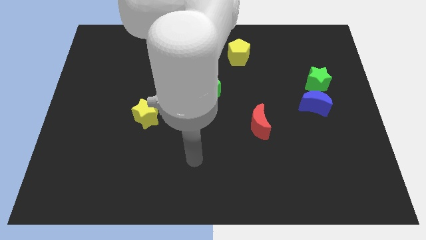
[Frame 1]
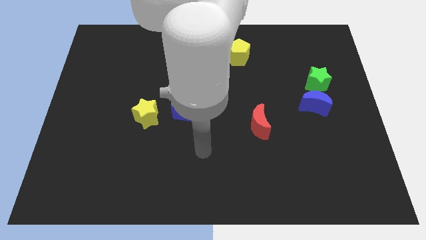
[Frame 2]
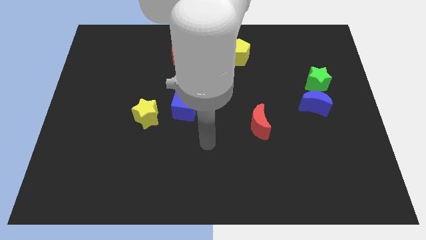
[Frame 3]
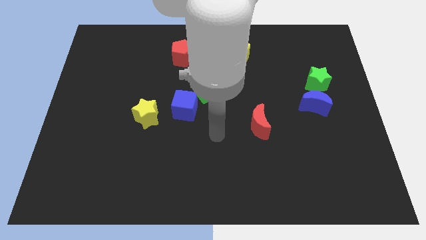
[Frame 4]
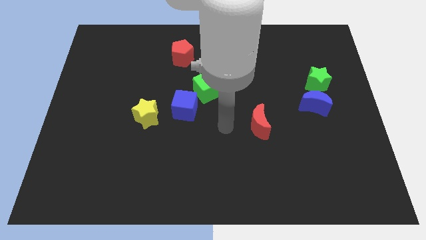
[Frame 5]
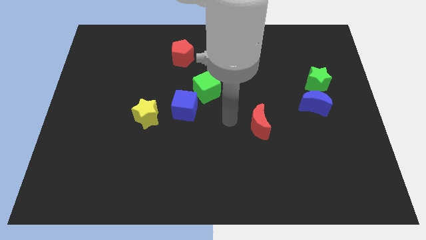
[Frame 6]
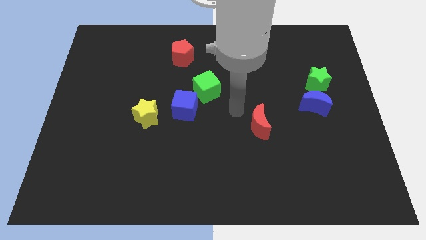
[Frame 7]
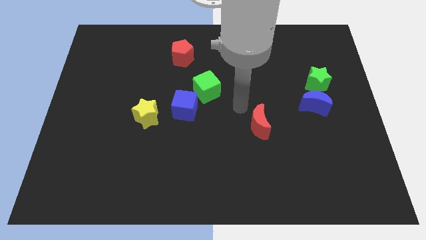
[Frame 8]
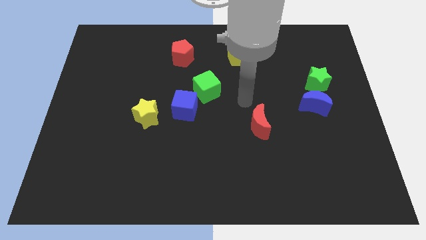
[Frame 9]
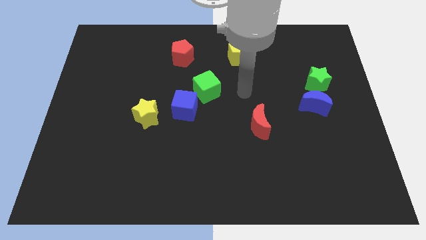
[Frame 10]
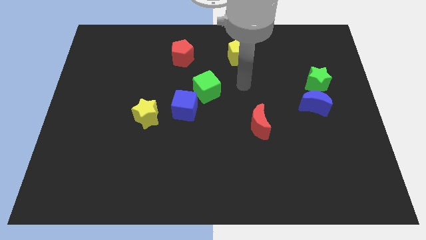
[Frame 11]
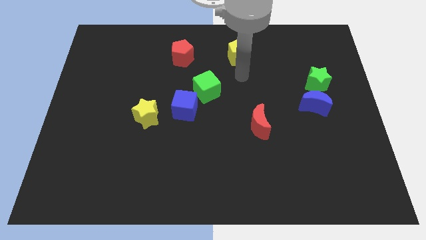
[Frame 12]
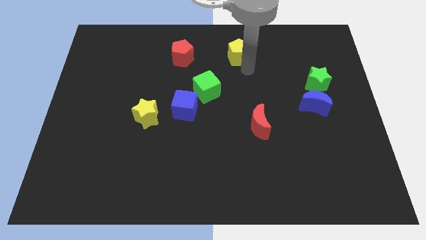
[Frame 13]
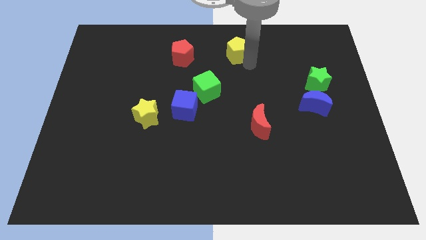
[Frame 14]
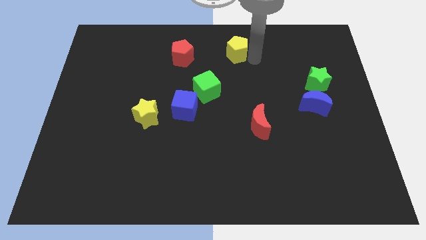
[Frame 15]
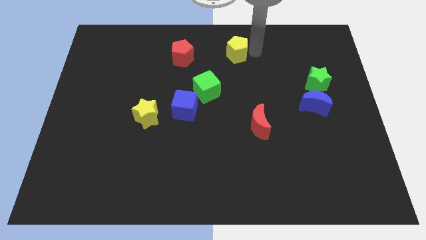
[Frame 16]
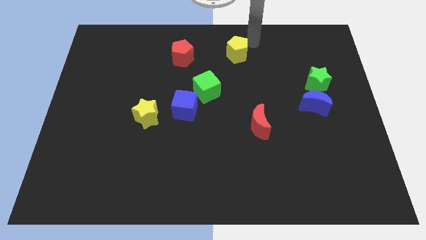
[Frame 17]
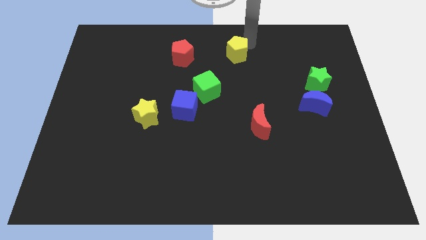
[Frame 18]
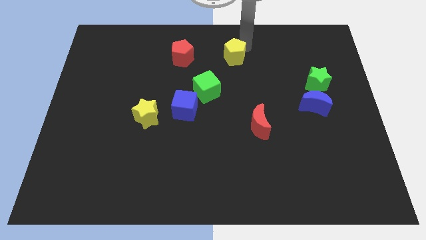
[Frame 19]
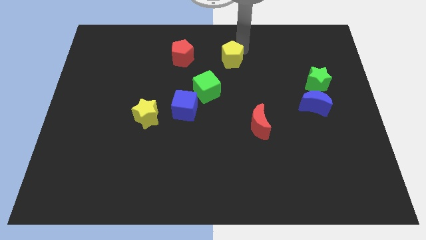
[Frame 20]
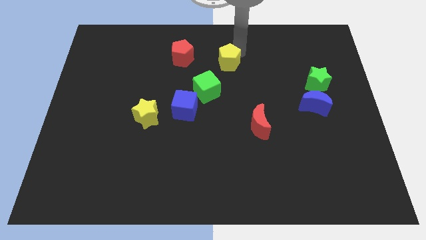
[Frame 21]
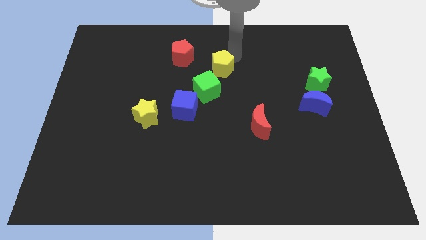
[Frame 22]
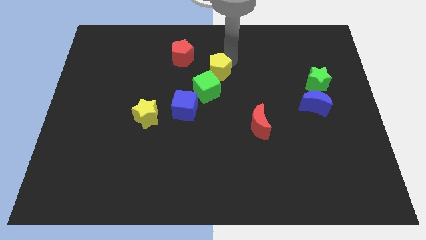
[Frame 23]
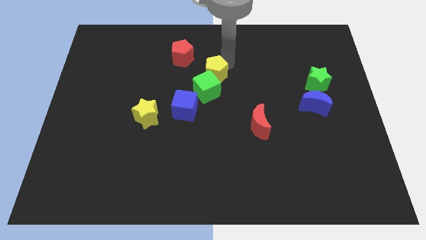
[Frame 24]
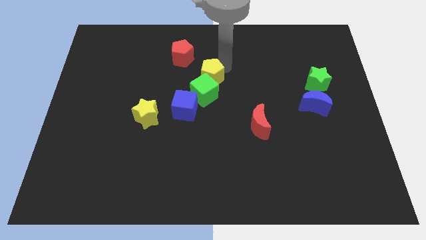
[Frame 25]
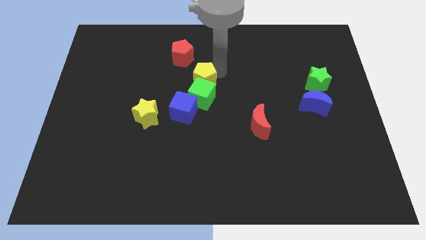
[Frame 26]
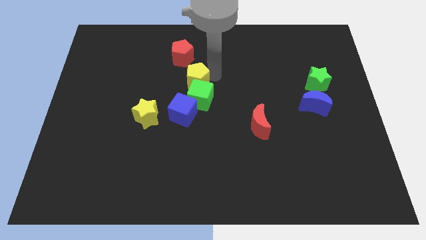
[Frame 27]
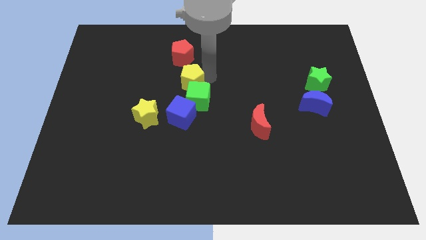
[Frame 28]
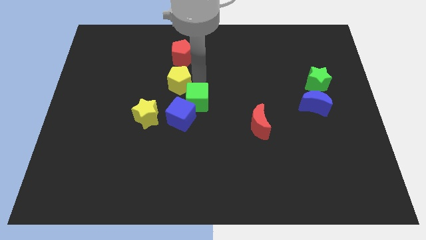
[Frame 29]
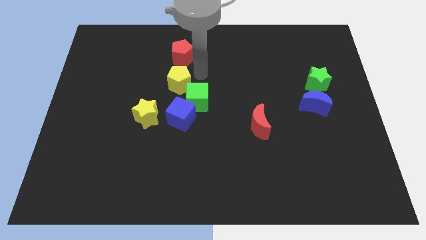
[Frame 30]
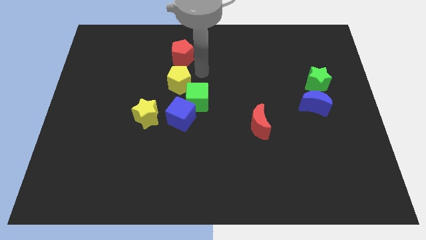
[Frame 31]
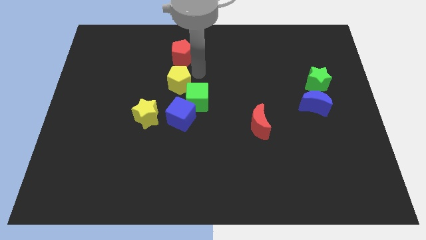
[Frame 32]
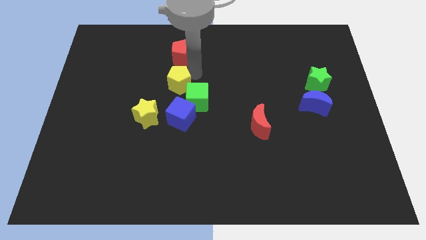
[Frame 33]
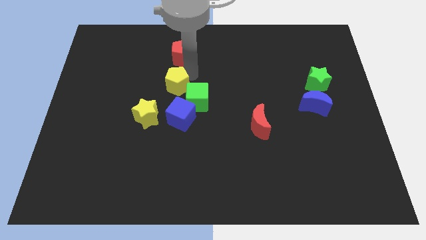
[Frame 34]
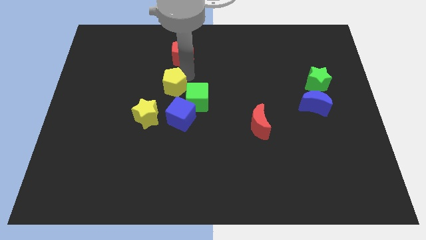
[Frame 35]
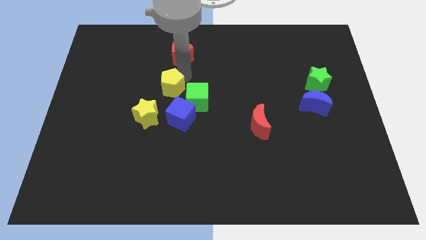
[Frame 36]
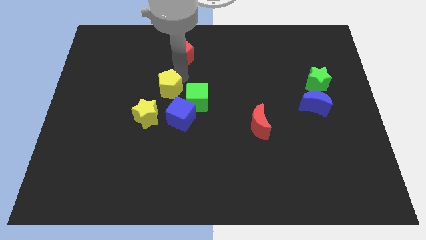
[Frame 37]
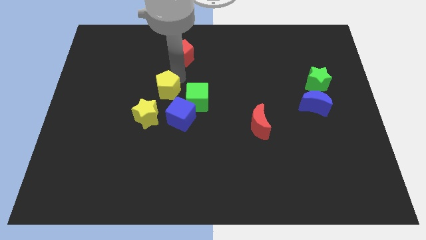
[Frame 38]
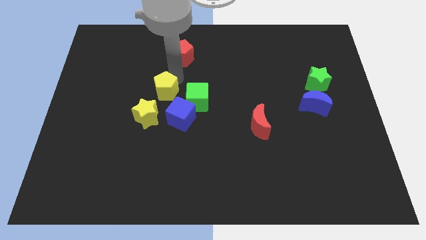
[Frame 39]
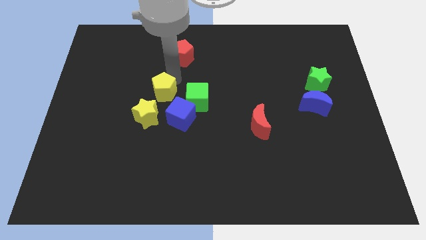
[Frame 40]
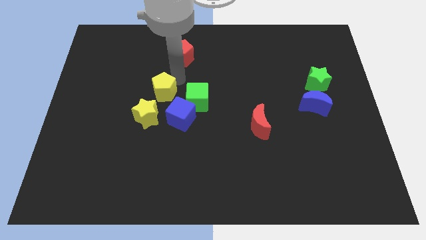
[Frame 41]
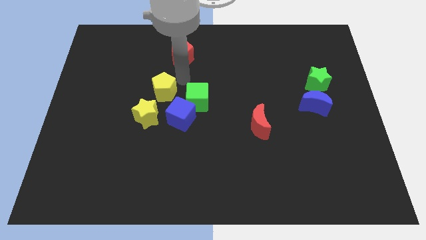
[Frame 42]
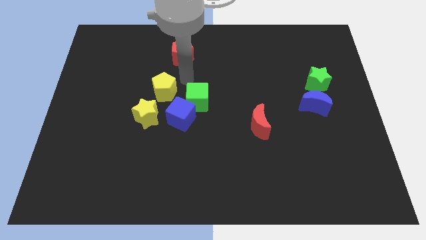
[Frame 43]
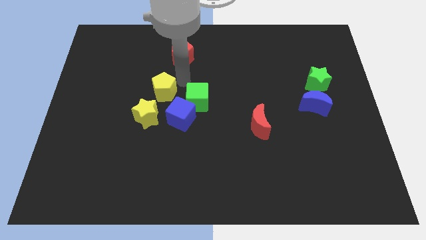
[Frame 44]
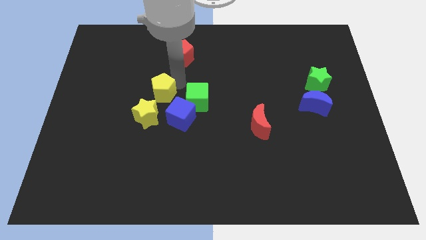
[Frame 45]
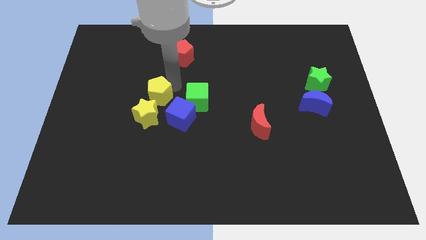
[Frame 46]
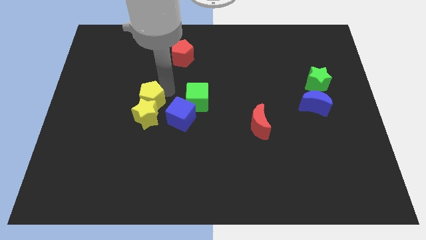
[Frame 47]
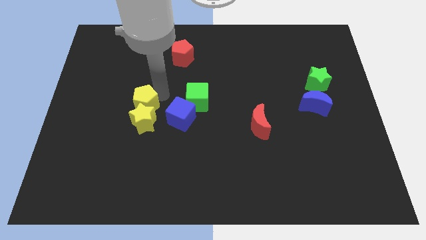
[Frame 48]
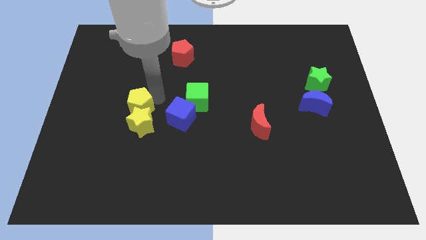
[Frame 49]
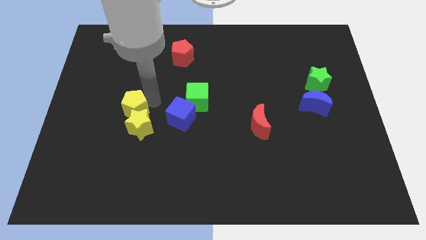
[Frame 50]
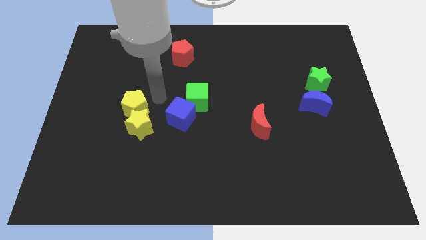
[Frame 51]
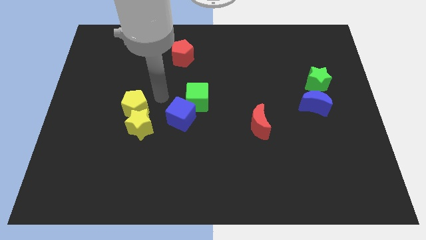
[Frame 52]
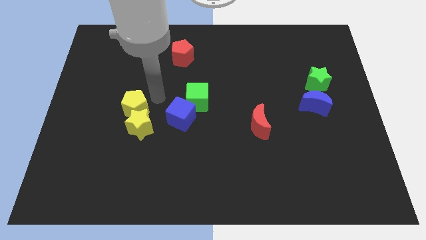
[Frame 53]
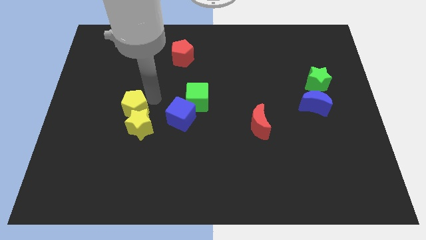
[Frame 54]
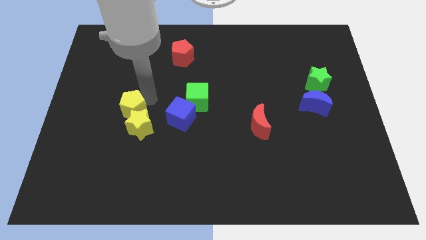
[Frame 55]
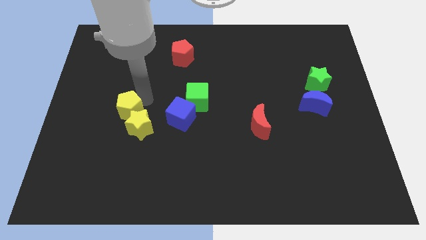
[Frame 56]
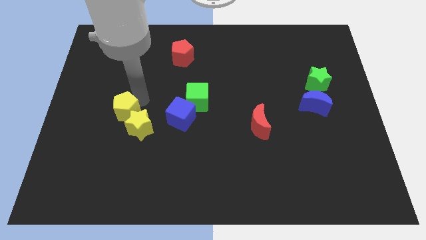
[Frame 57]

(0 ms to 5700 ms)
push the yellow pentagon to the left of the yellow star

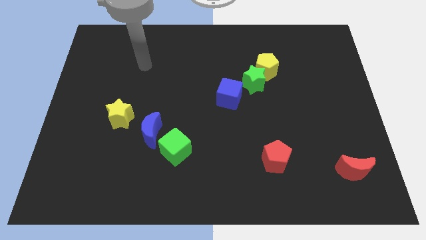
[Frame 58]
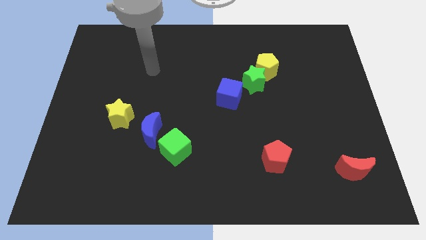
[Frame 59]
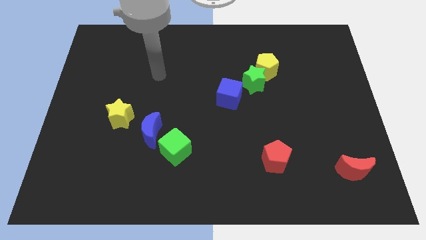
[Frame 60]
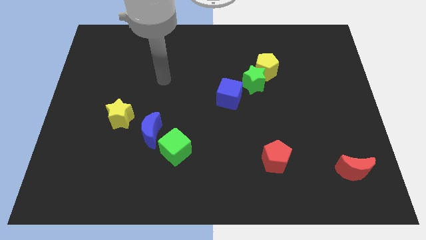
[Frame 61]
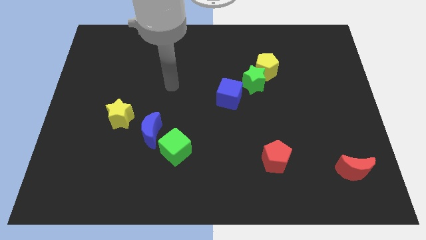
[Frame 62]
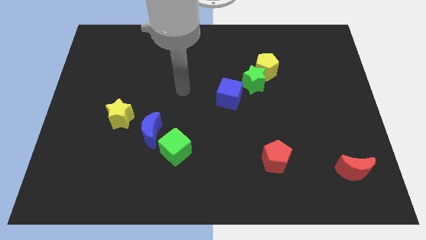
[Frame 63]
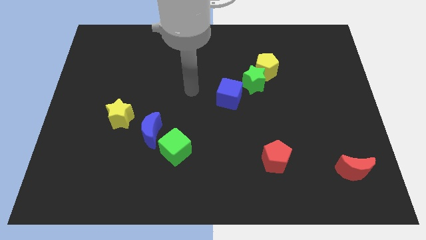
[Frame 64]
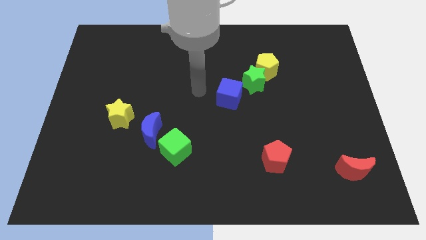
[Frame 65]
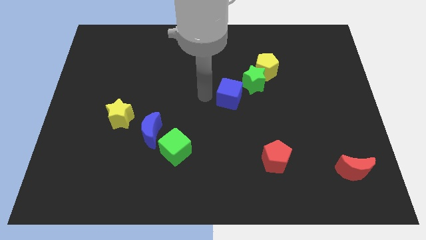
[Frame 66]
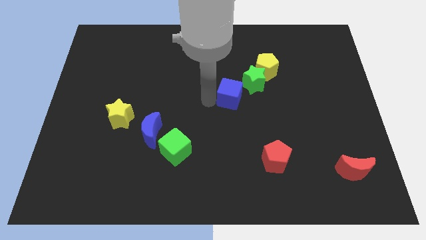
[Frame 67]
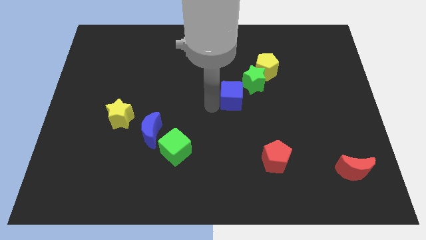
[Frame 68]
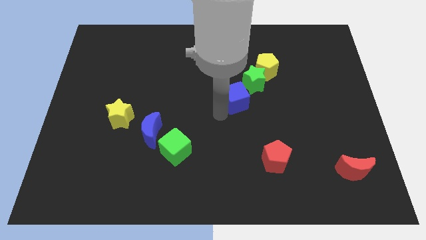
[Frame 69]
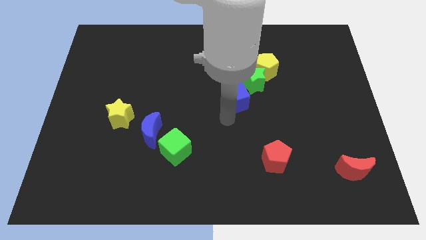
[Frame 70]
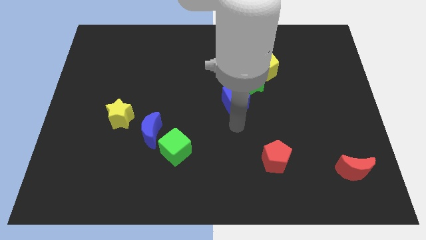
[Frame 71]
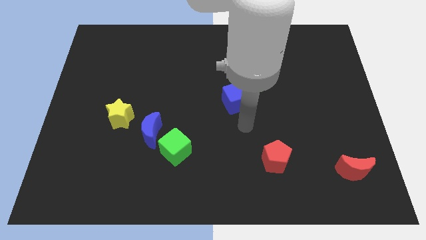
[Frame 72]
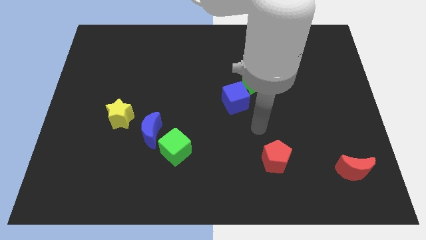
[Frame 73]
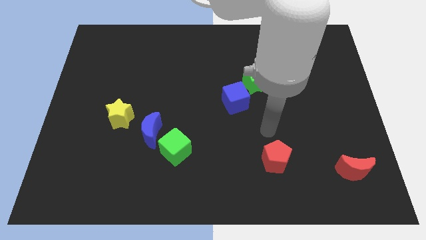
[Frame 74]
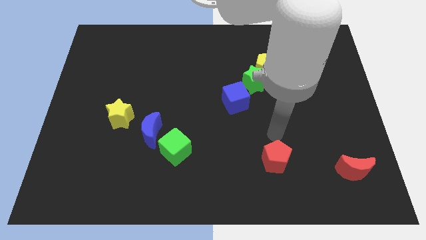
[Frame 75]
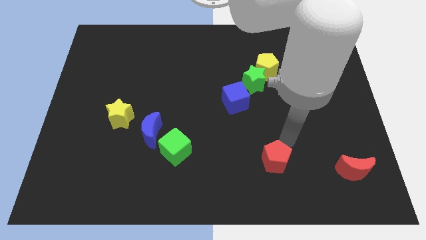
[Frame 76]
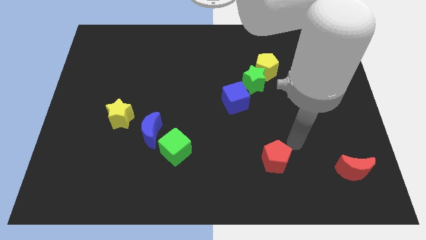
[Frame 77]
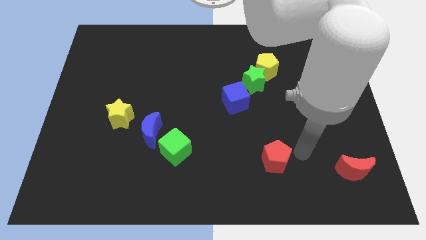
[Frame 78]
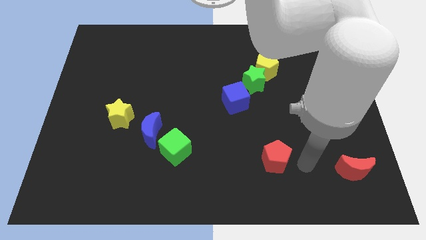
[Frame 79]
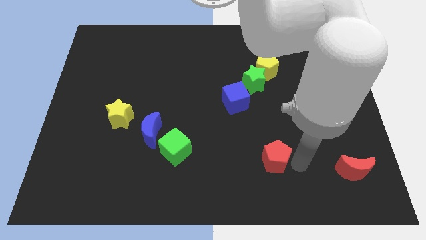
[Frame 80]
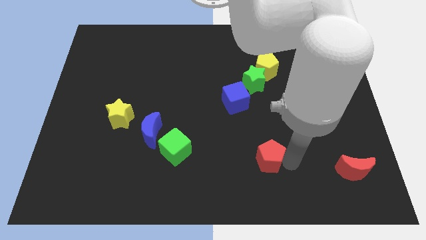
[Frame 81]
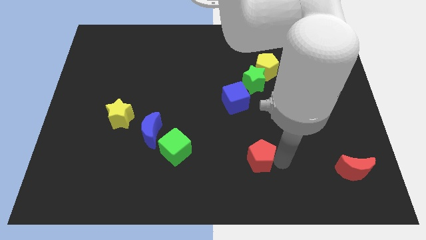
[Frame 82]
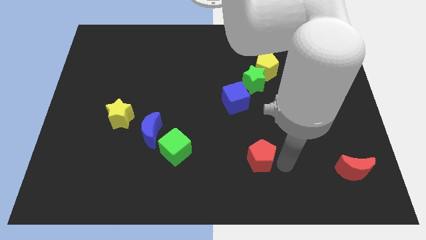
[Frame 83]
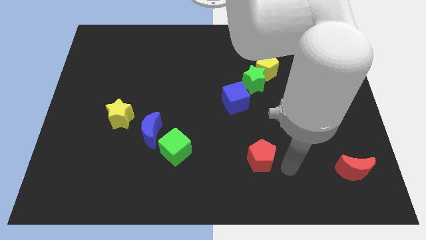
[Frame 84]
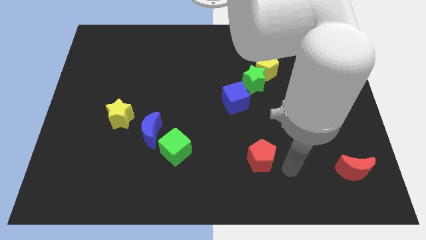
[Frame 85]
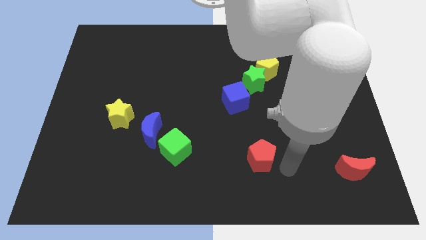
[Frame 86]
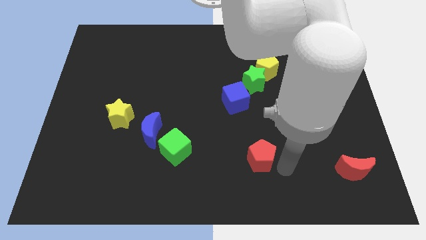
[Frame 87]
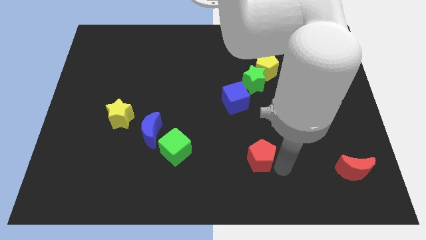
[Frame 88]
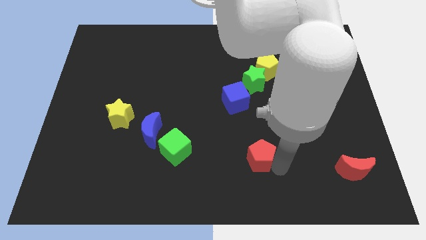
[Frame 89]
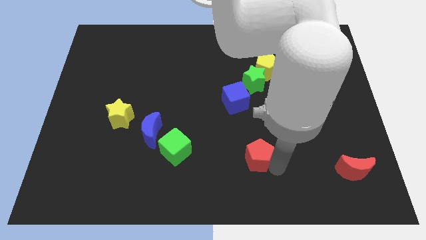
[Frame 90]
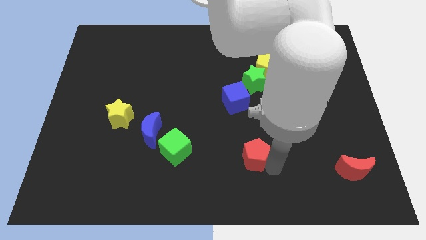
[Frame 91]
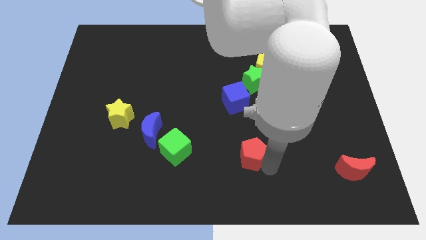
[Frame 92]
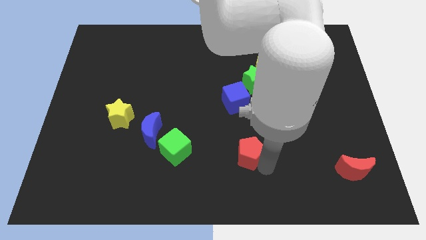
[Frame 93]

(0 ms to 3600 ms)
slide the red pentagon to the right of the green cube
